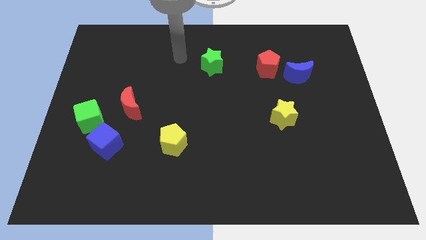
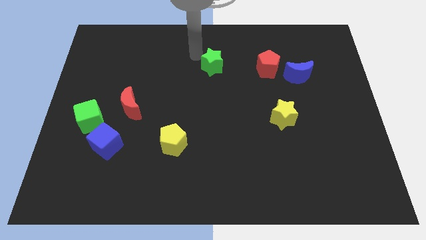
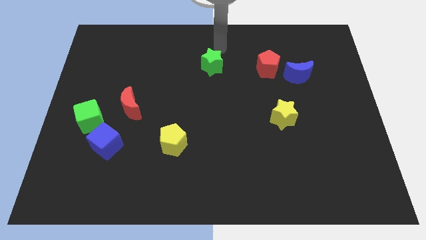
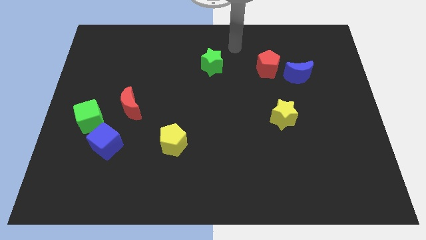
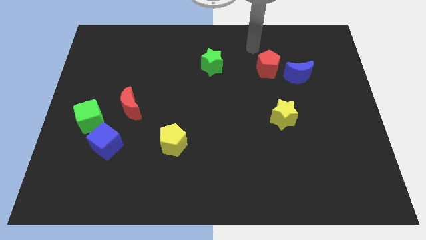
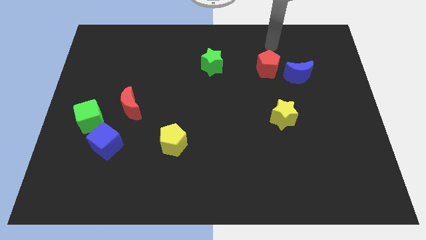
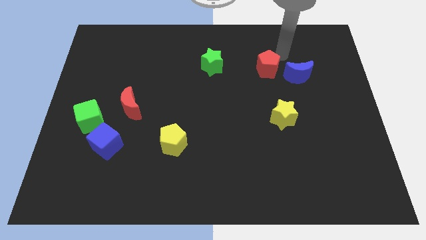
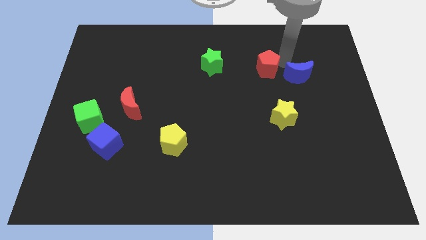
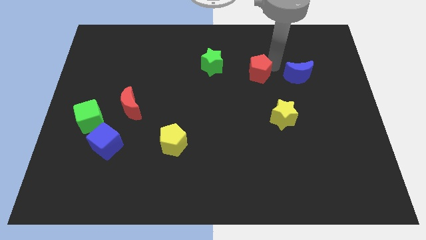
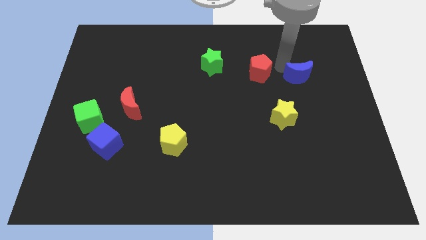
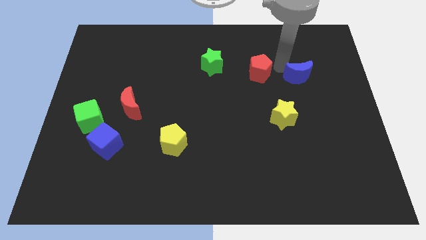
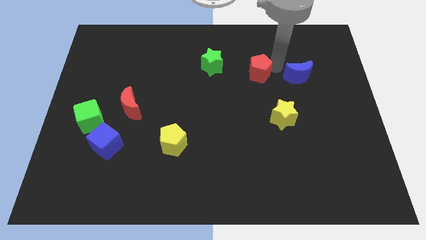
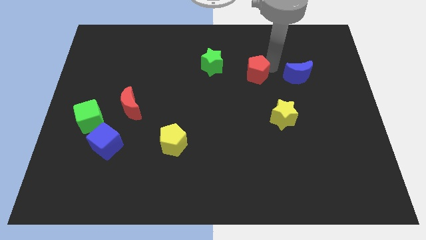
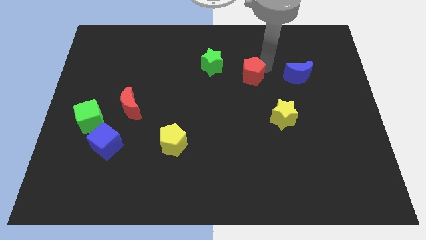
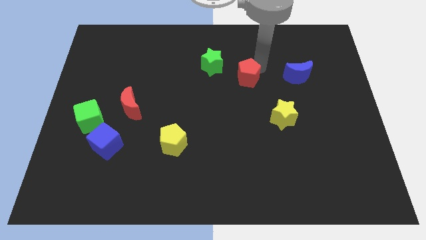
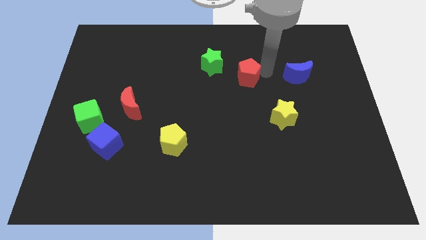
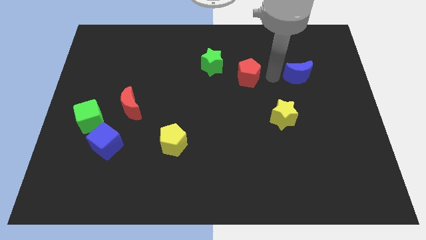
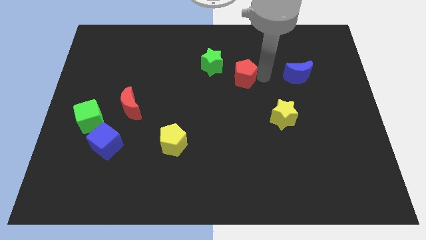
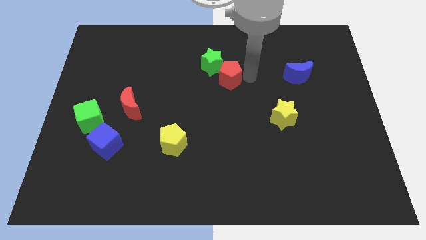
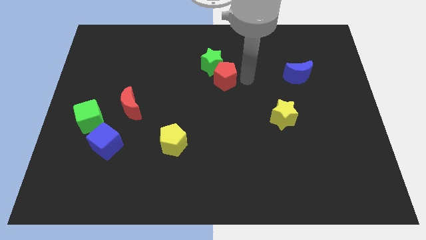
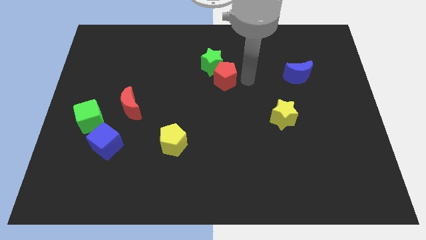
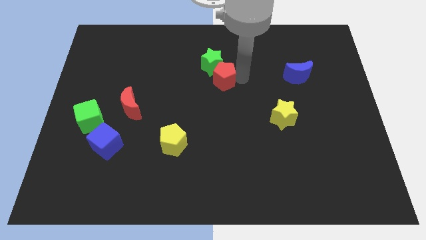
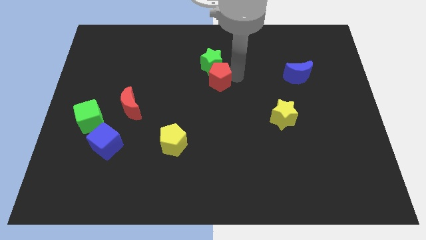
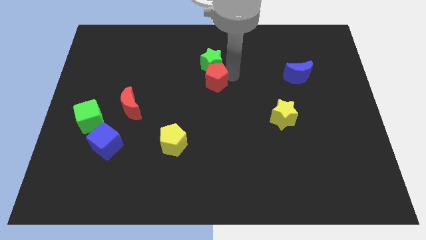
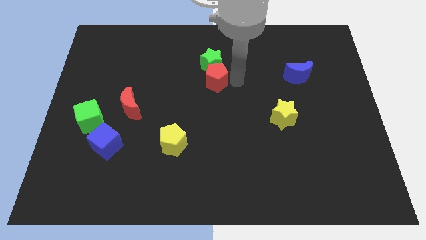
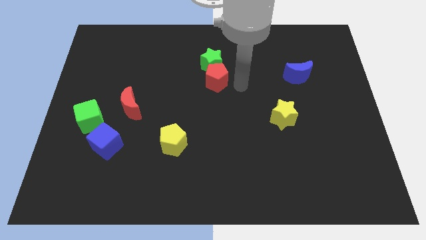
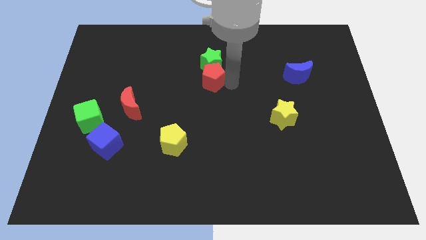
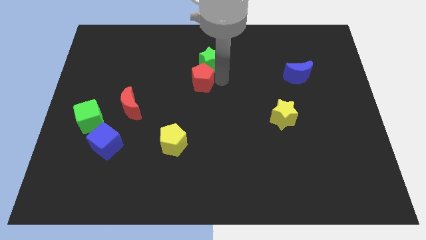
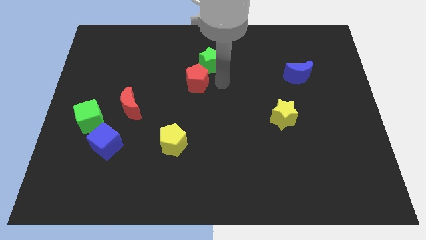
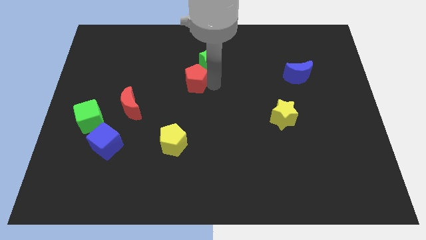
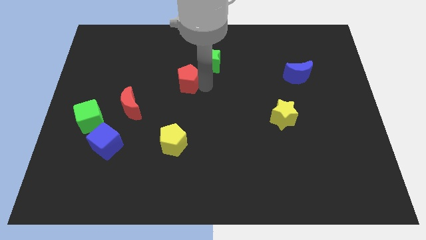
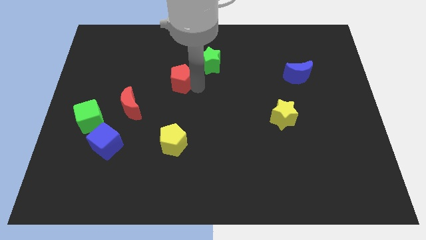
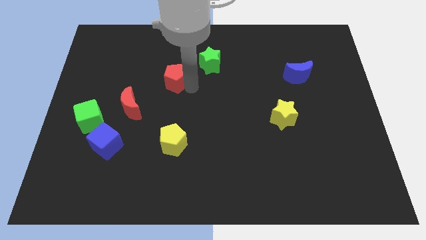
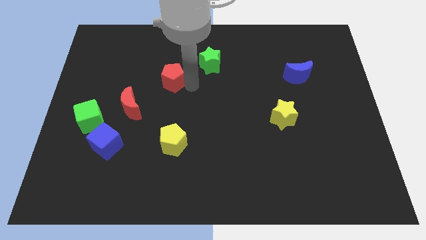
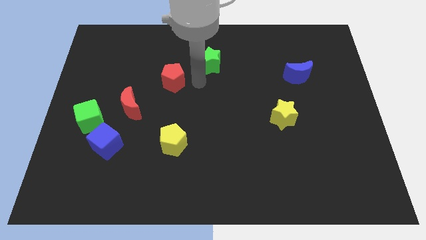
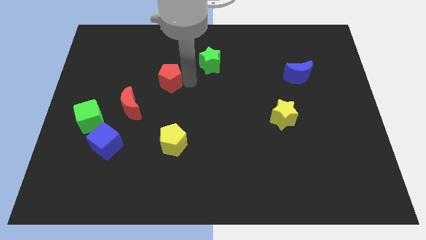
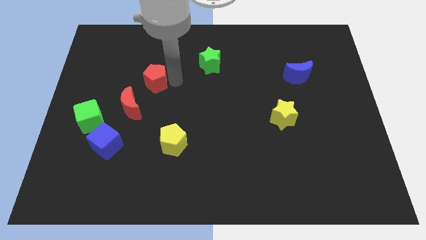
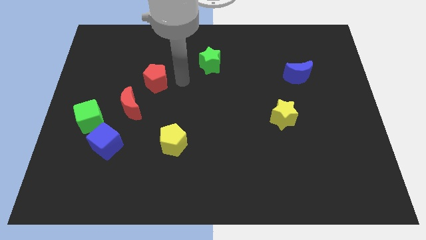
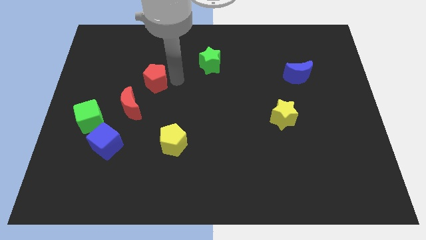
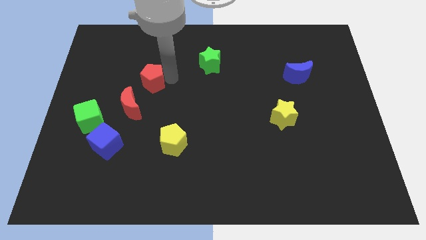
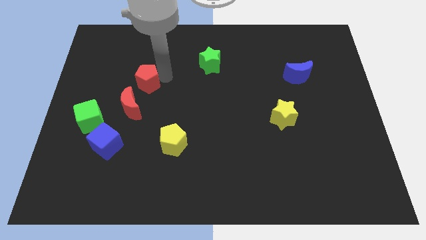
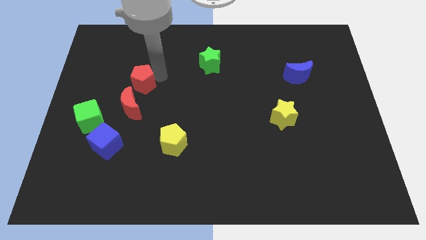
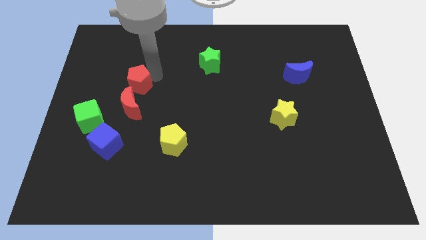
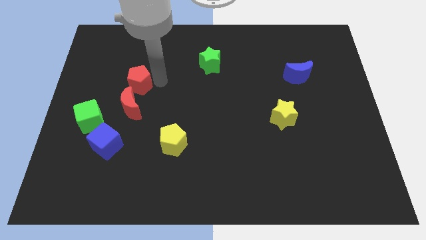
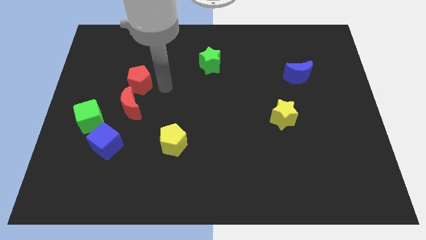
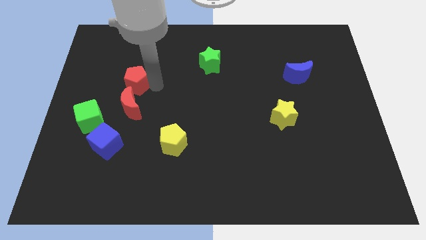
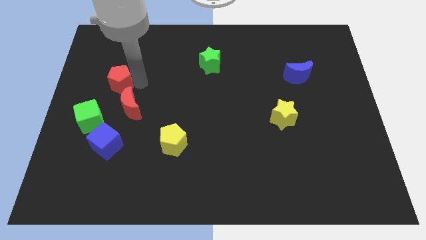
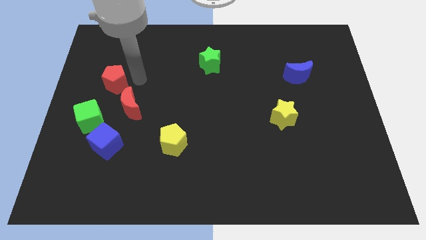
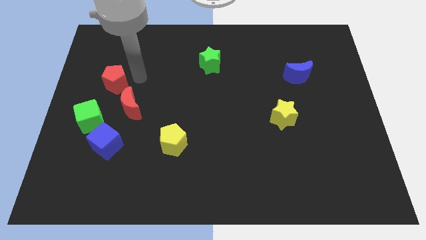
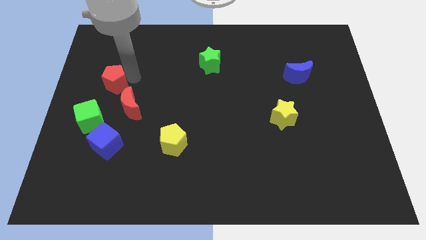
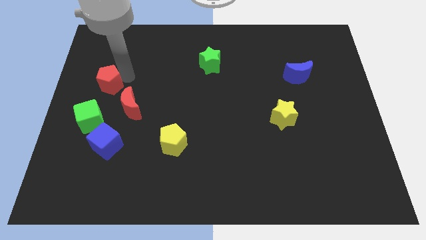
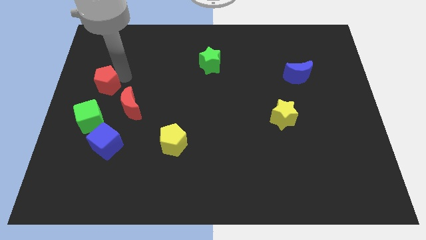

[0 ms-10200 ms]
move the red pentagon to the left side
